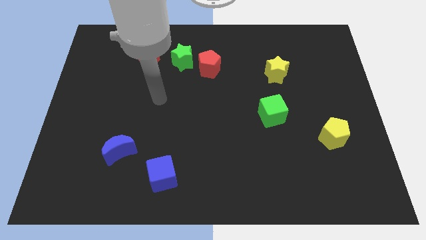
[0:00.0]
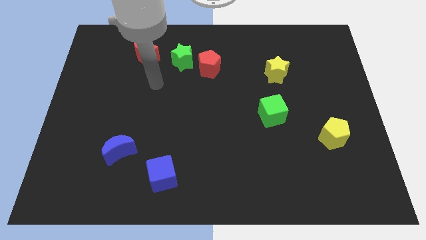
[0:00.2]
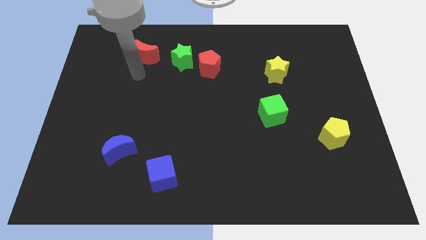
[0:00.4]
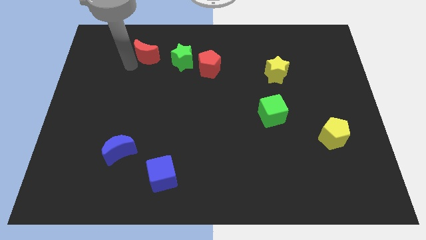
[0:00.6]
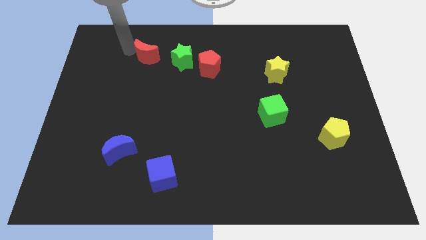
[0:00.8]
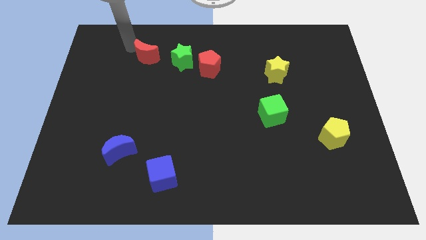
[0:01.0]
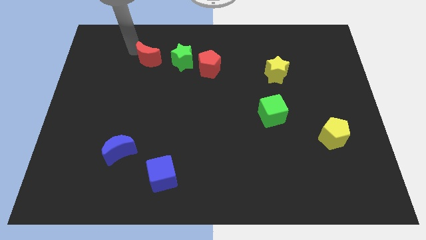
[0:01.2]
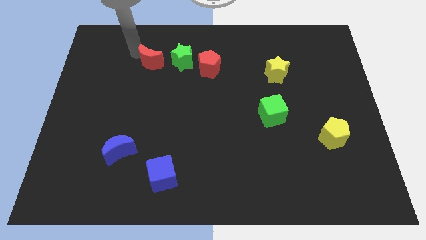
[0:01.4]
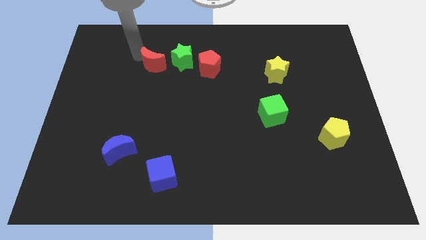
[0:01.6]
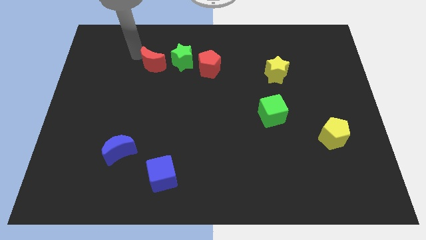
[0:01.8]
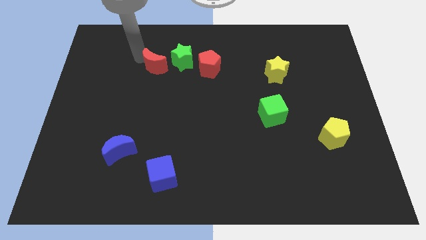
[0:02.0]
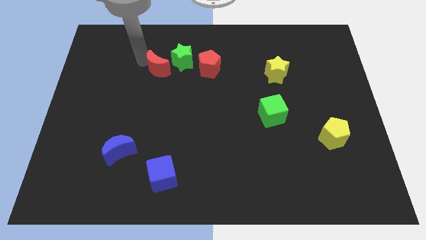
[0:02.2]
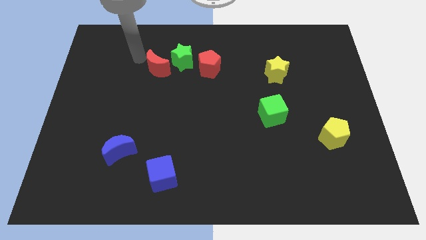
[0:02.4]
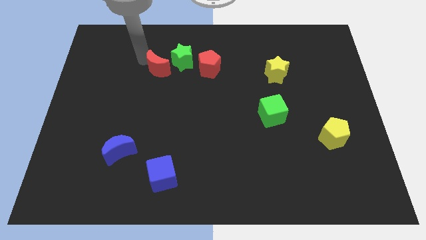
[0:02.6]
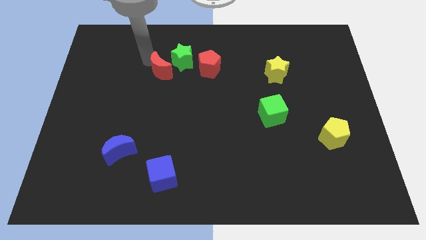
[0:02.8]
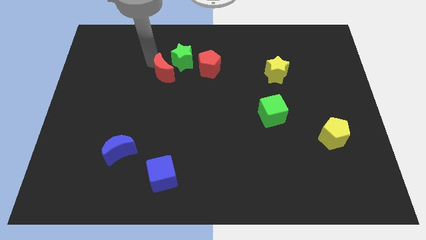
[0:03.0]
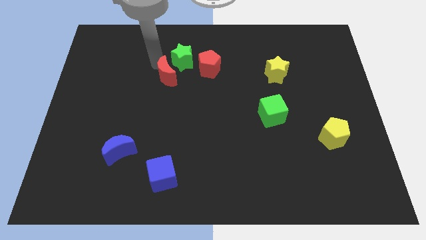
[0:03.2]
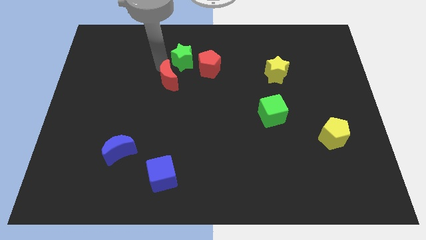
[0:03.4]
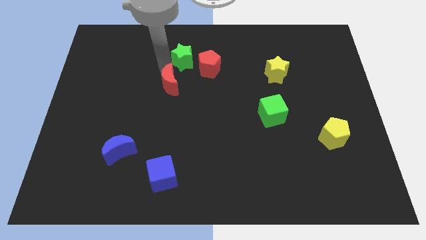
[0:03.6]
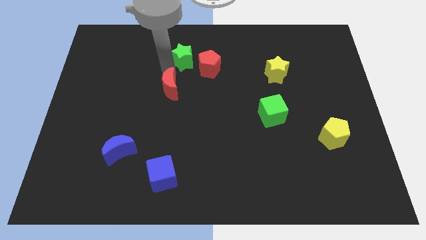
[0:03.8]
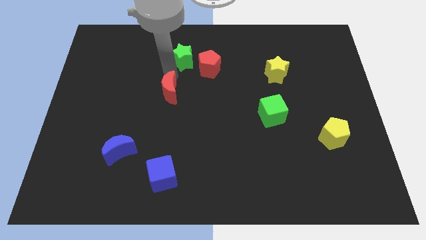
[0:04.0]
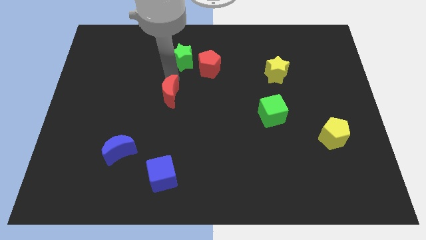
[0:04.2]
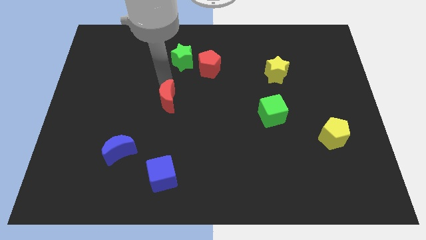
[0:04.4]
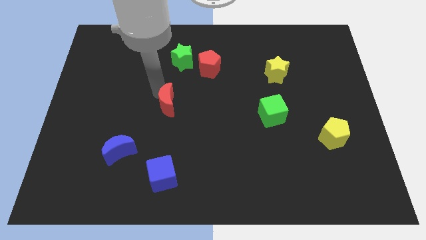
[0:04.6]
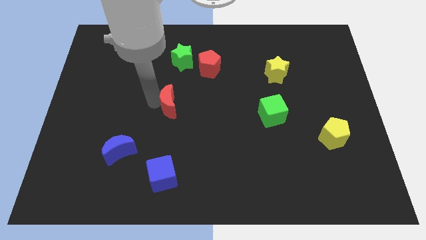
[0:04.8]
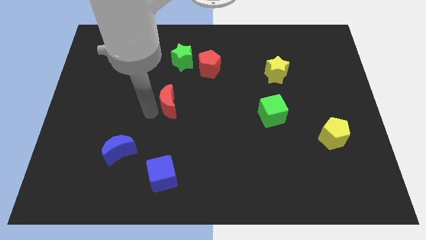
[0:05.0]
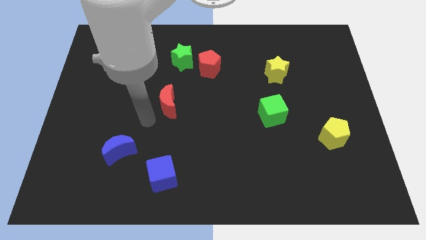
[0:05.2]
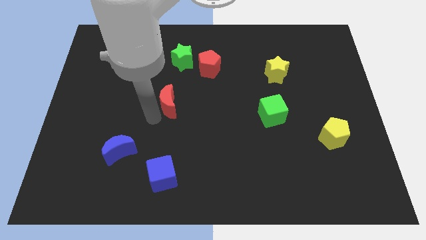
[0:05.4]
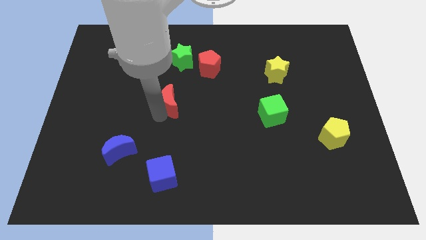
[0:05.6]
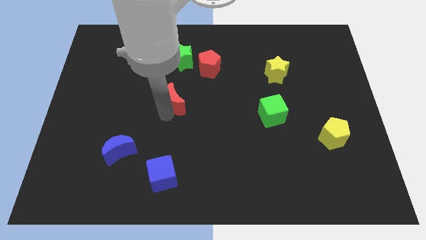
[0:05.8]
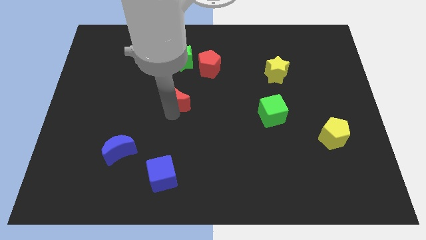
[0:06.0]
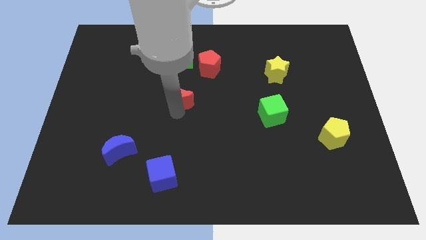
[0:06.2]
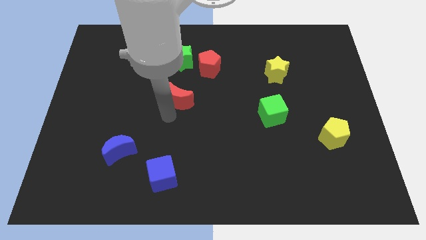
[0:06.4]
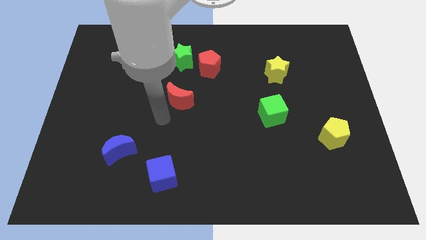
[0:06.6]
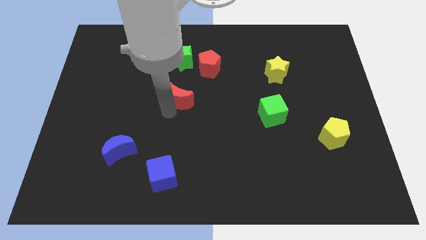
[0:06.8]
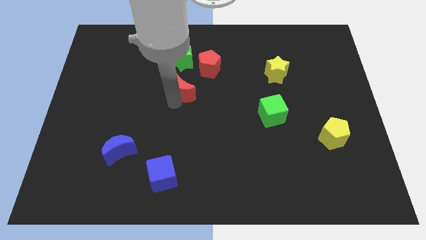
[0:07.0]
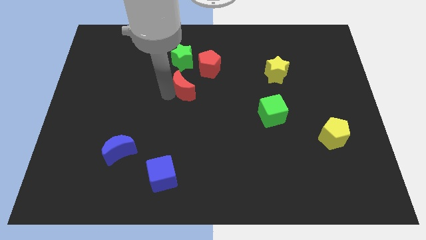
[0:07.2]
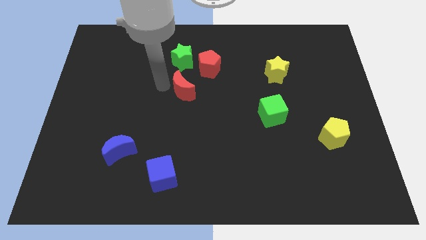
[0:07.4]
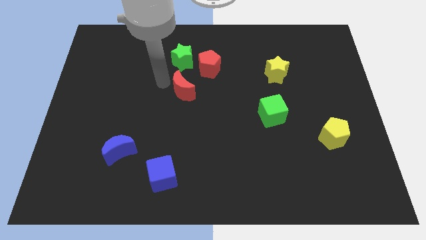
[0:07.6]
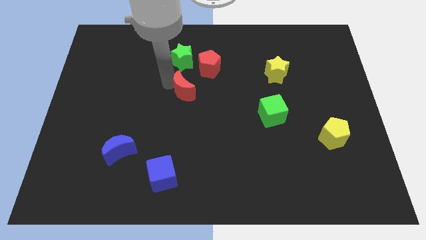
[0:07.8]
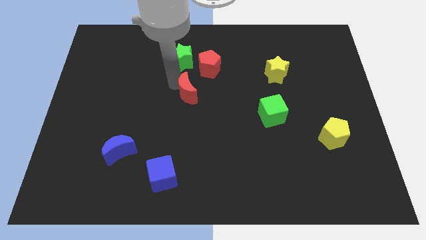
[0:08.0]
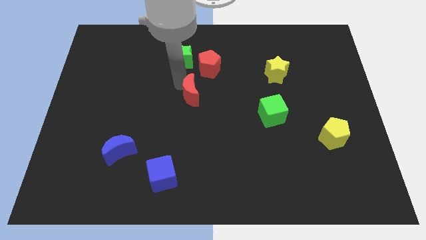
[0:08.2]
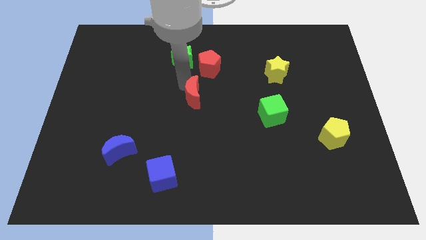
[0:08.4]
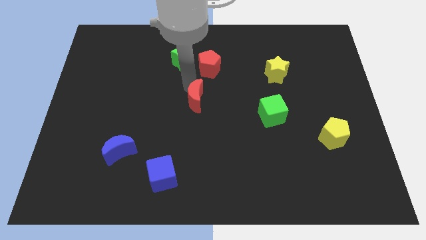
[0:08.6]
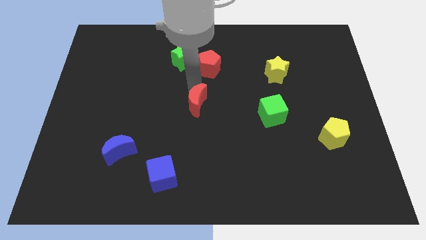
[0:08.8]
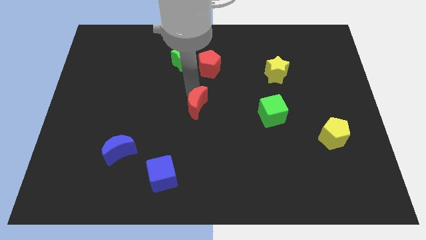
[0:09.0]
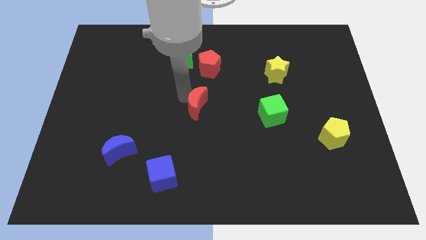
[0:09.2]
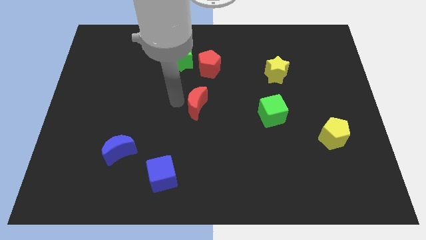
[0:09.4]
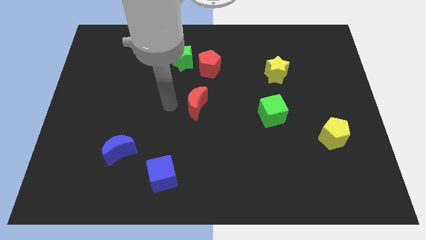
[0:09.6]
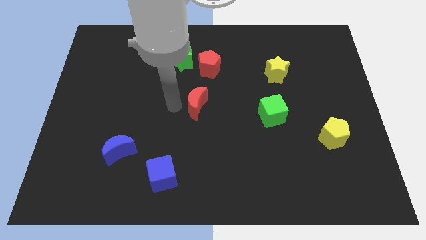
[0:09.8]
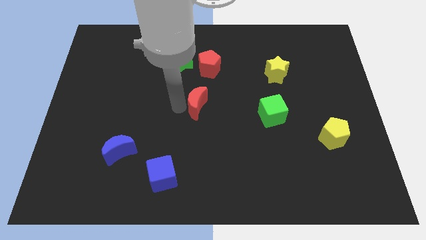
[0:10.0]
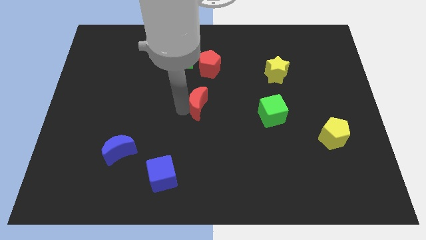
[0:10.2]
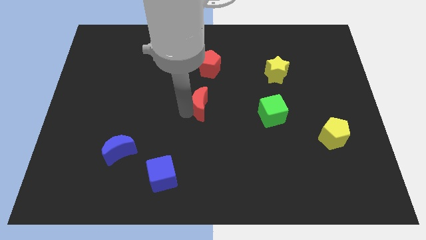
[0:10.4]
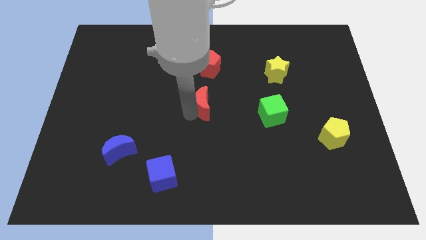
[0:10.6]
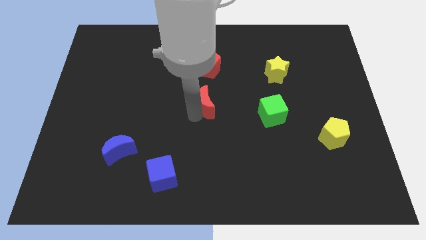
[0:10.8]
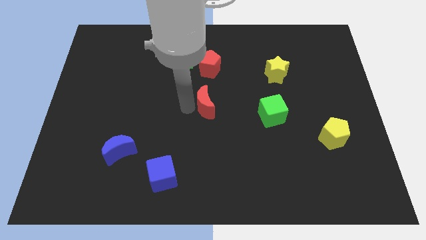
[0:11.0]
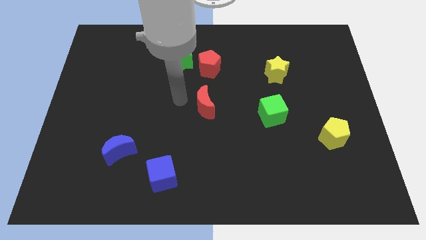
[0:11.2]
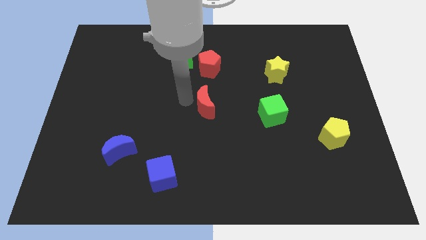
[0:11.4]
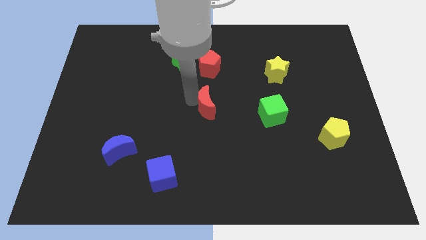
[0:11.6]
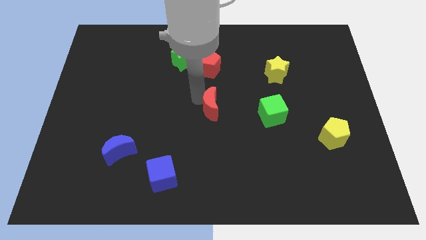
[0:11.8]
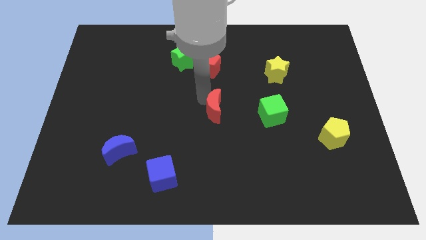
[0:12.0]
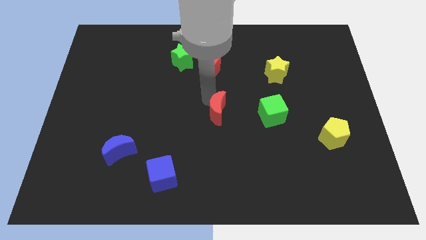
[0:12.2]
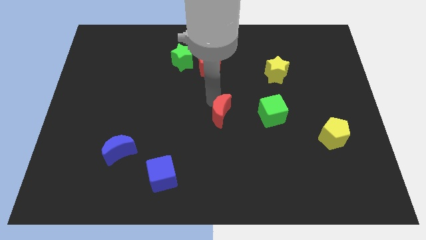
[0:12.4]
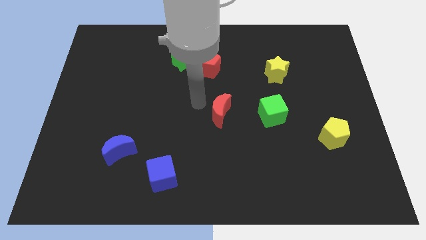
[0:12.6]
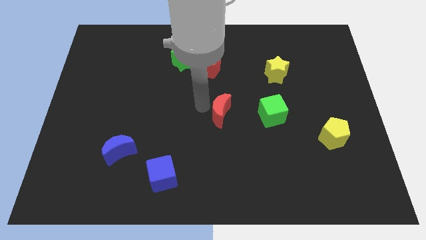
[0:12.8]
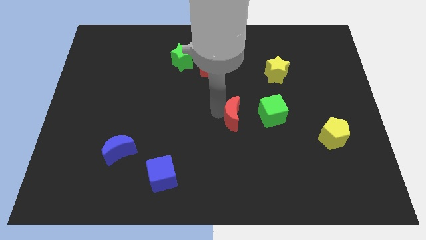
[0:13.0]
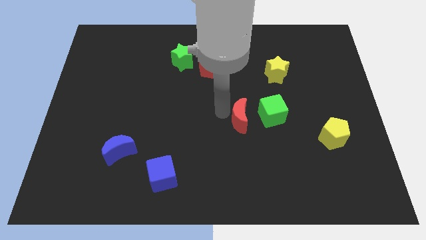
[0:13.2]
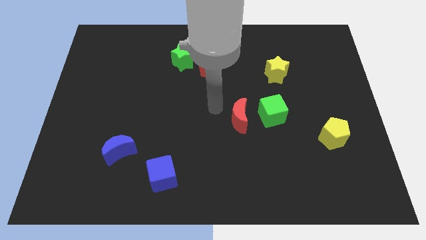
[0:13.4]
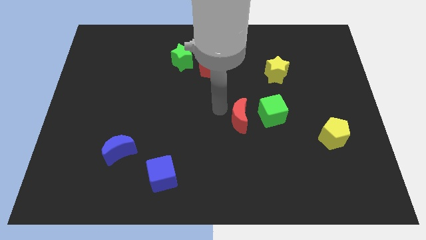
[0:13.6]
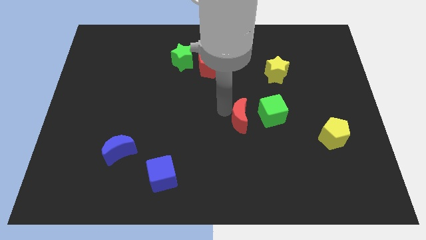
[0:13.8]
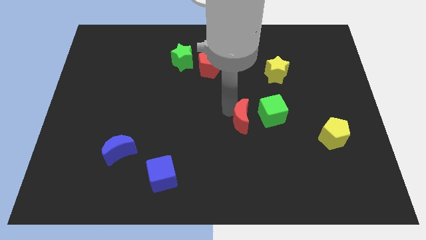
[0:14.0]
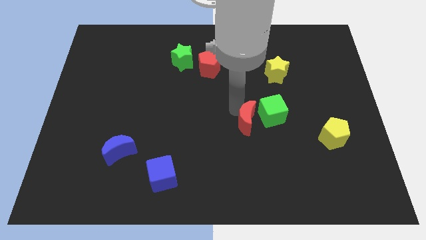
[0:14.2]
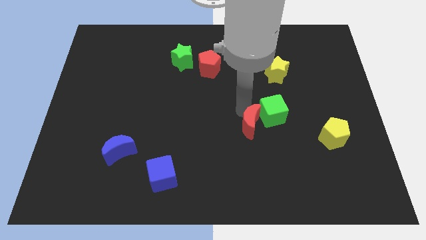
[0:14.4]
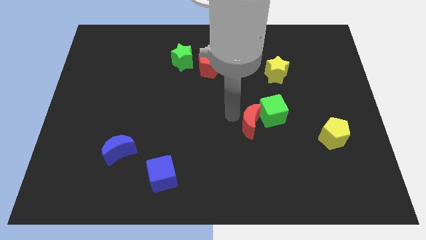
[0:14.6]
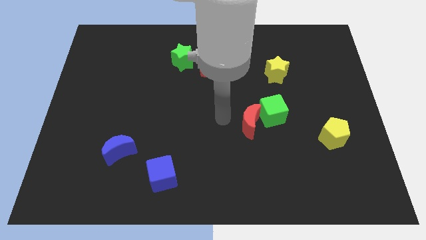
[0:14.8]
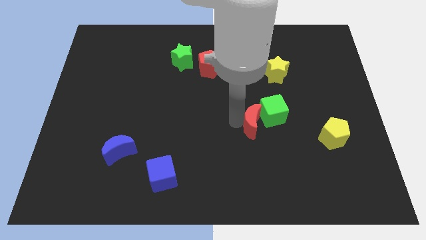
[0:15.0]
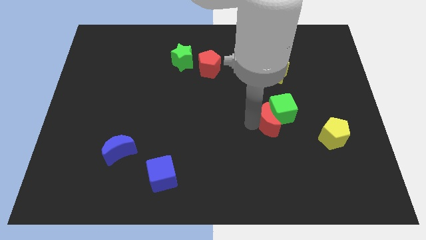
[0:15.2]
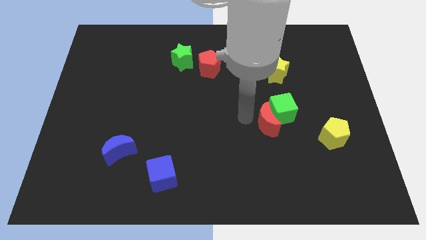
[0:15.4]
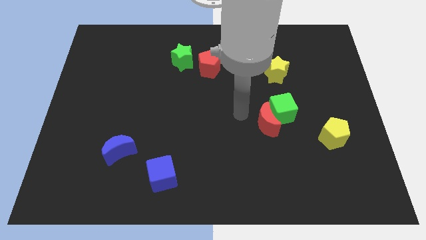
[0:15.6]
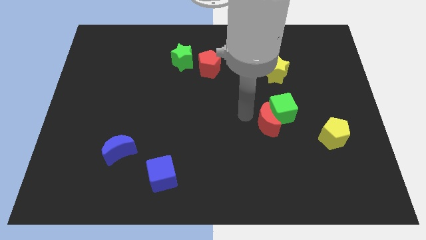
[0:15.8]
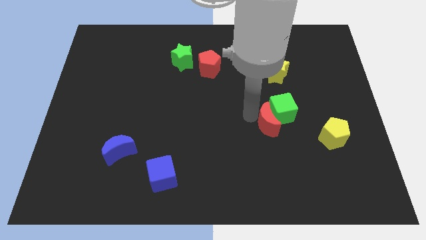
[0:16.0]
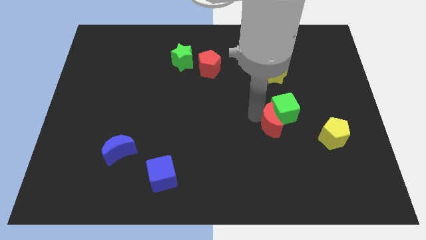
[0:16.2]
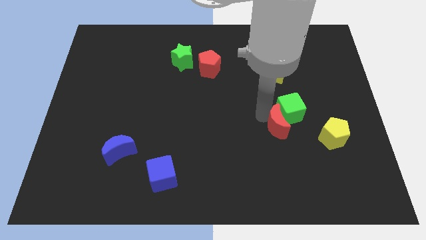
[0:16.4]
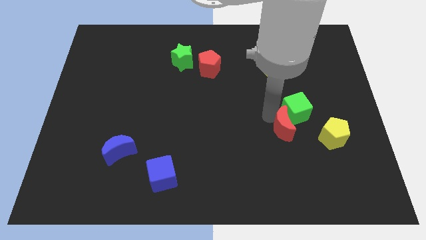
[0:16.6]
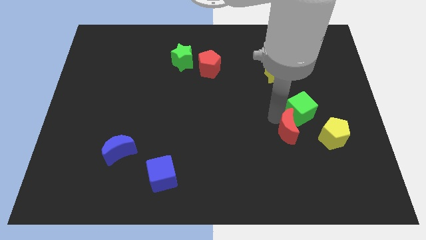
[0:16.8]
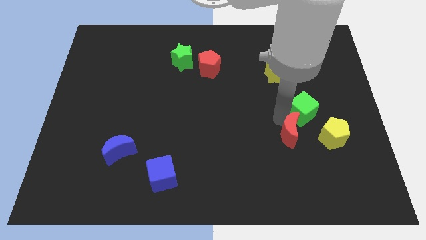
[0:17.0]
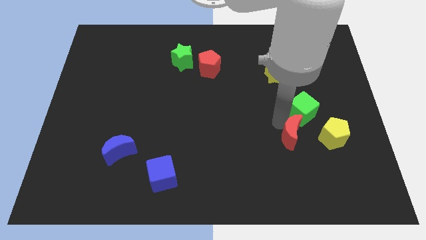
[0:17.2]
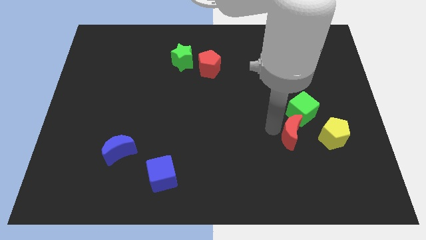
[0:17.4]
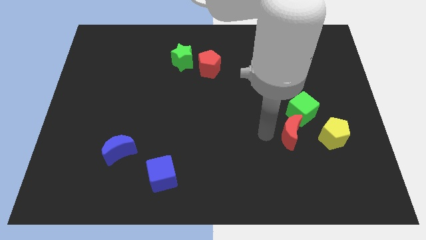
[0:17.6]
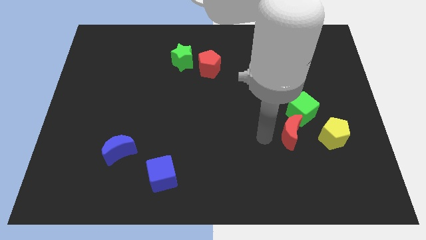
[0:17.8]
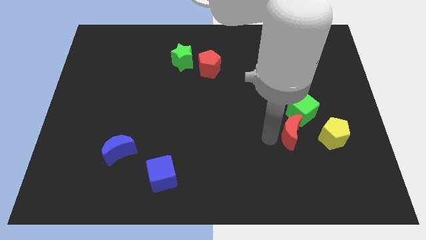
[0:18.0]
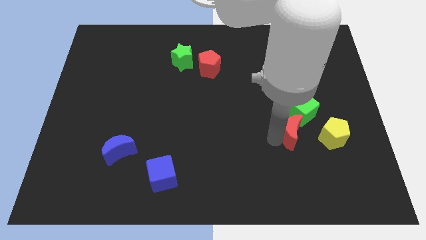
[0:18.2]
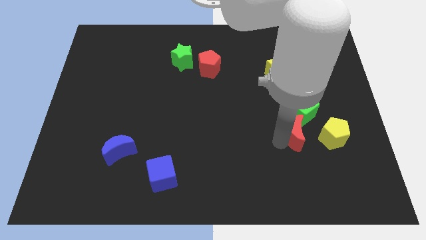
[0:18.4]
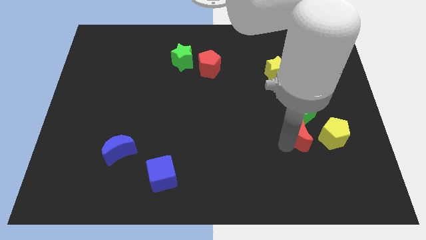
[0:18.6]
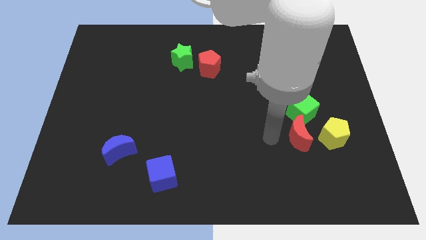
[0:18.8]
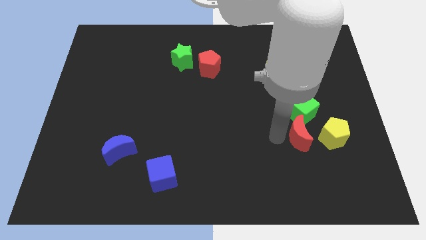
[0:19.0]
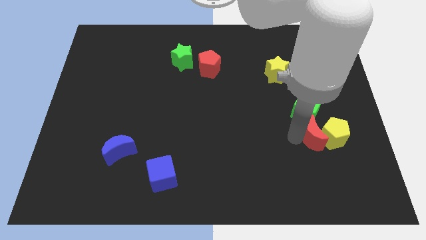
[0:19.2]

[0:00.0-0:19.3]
put the red moon close to the yellow pentagon
